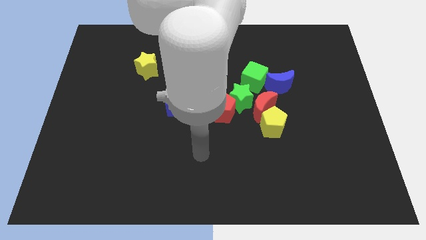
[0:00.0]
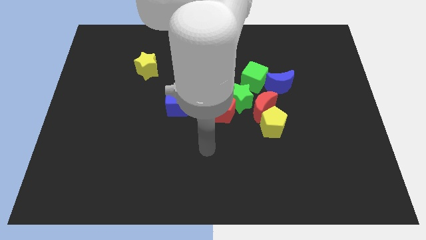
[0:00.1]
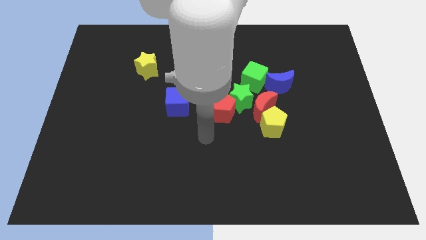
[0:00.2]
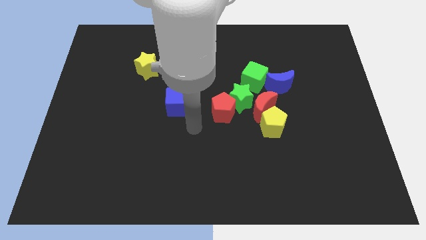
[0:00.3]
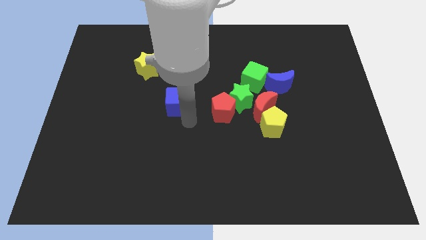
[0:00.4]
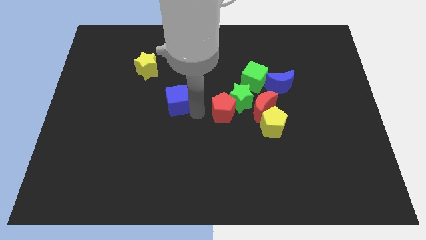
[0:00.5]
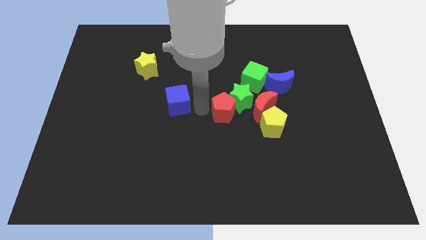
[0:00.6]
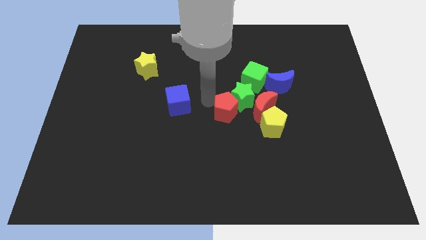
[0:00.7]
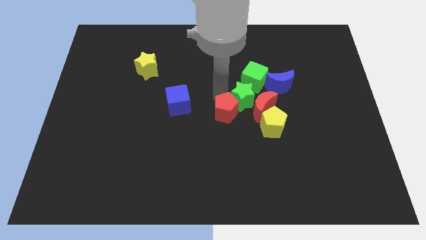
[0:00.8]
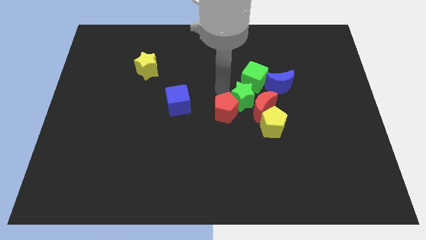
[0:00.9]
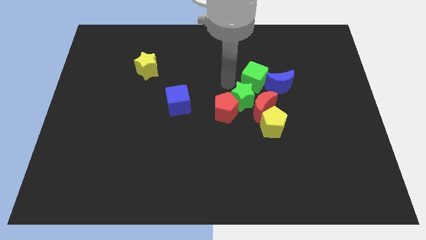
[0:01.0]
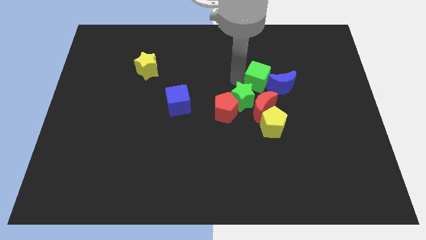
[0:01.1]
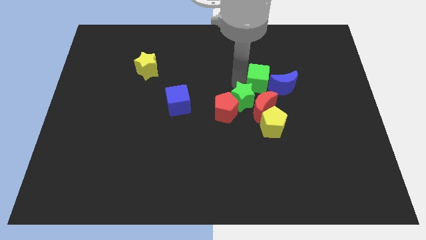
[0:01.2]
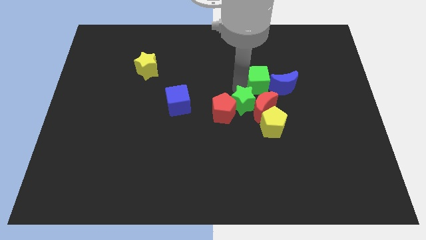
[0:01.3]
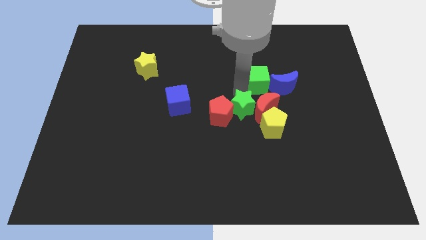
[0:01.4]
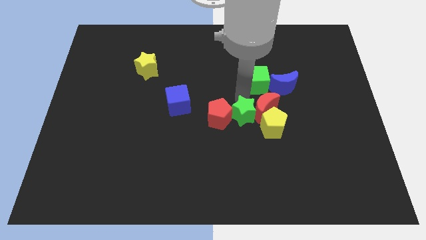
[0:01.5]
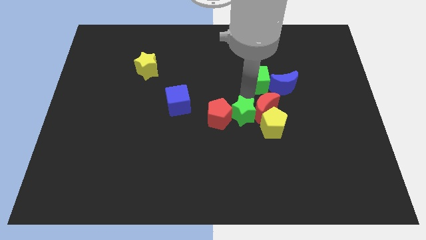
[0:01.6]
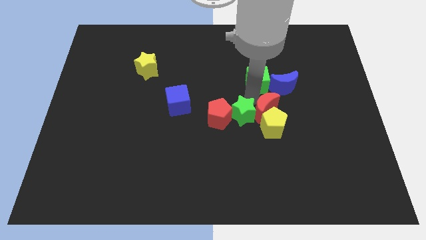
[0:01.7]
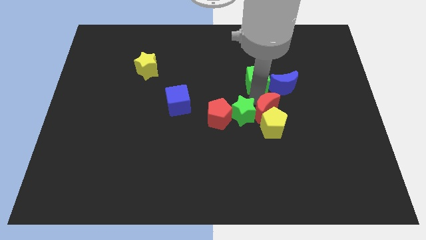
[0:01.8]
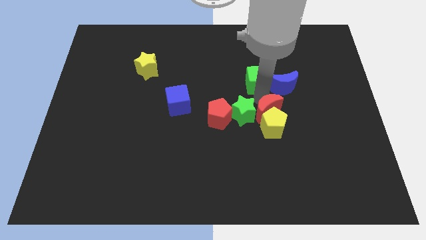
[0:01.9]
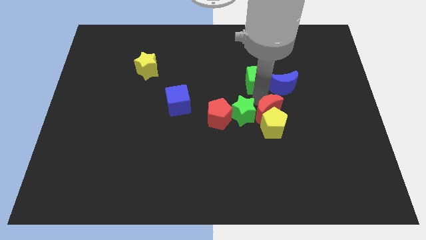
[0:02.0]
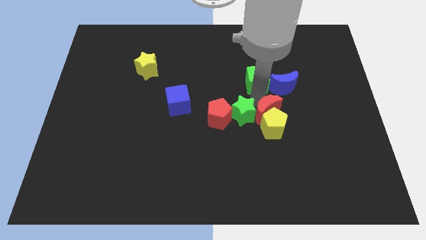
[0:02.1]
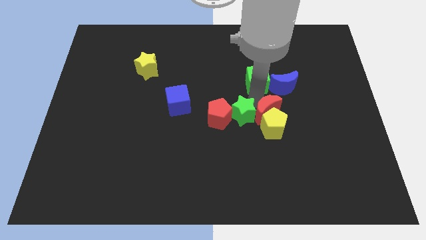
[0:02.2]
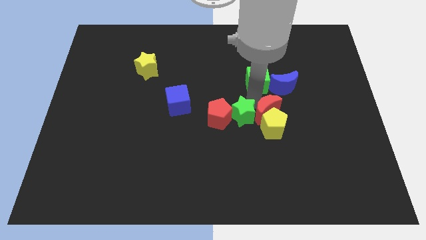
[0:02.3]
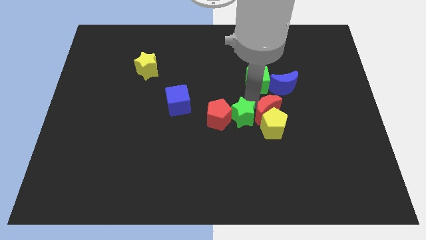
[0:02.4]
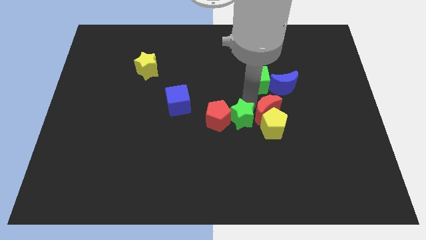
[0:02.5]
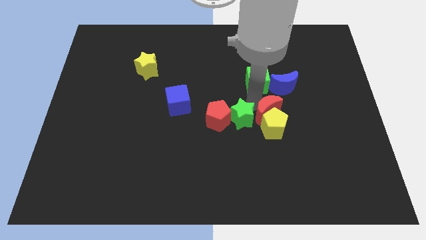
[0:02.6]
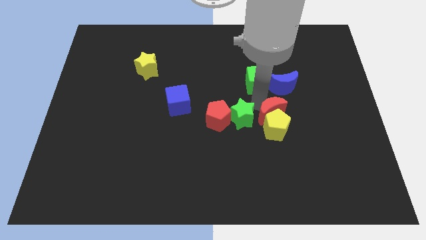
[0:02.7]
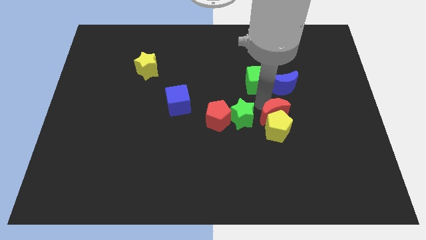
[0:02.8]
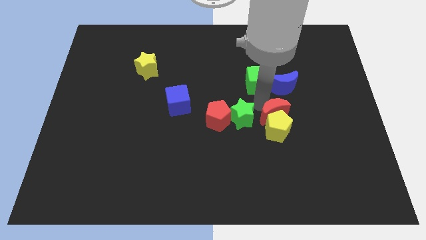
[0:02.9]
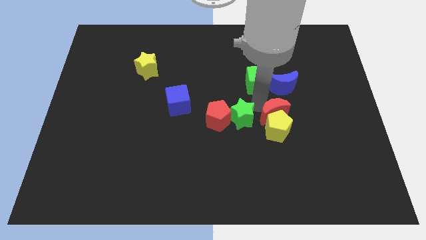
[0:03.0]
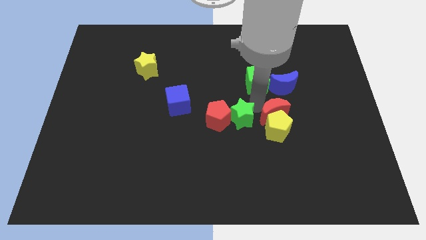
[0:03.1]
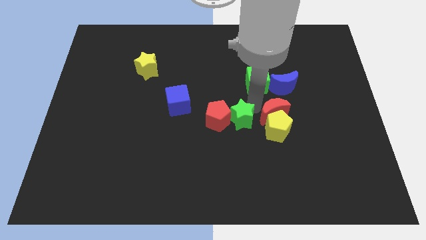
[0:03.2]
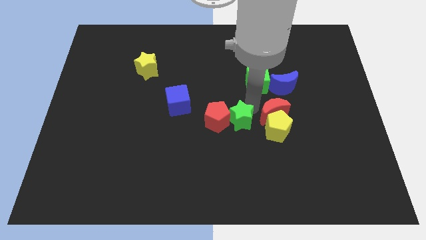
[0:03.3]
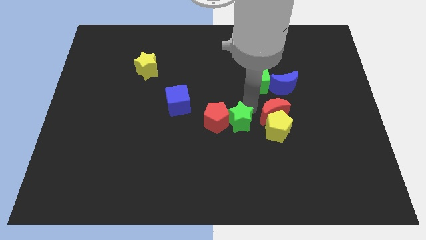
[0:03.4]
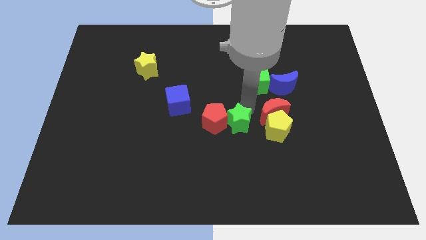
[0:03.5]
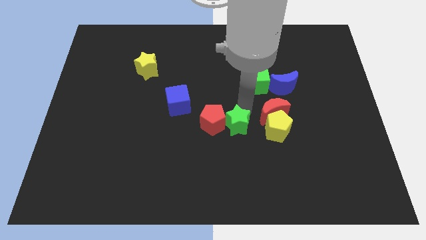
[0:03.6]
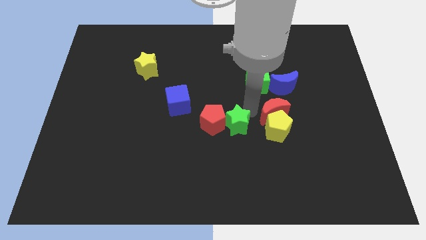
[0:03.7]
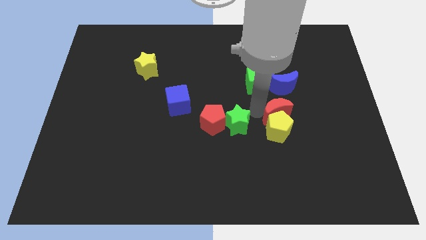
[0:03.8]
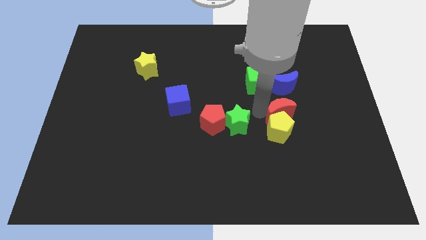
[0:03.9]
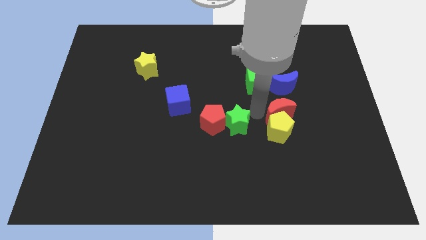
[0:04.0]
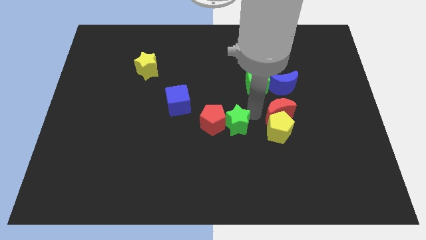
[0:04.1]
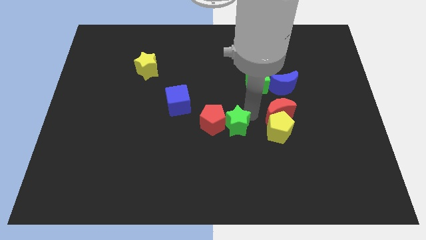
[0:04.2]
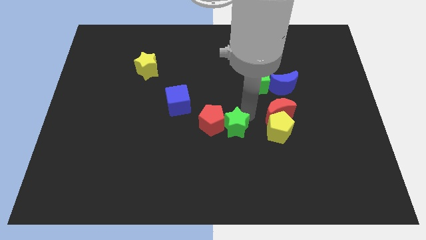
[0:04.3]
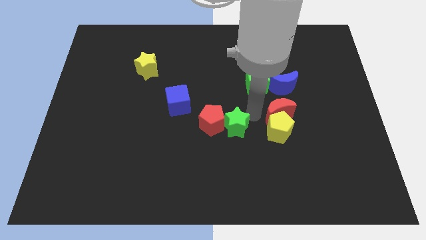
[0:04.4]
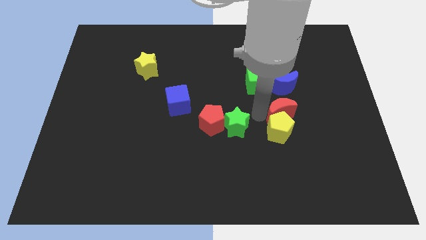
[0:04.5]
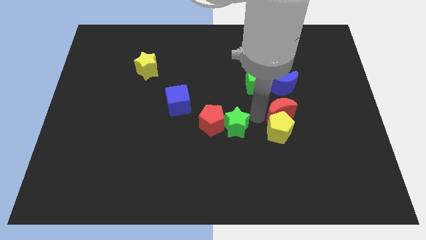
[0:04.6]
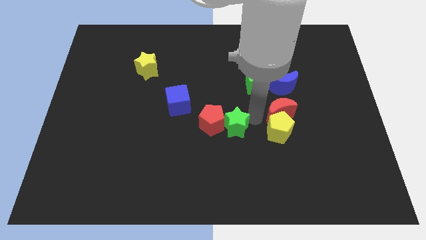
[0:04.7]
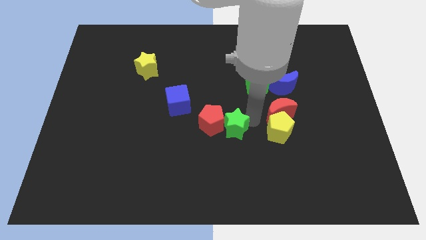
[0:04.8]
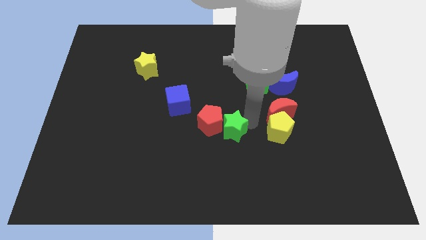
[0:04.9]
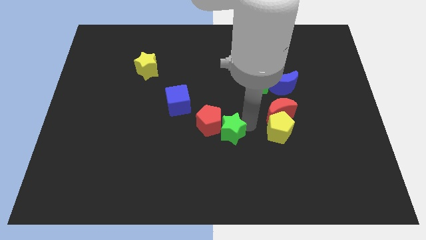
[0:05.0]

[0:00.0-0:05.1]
push the green star slightly downwards and then left

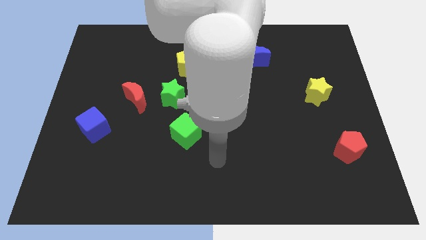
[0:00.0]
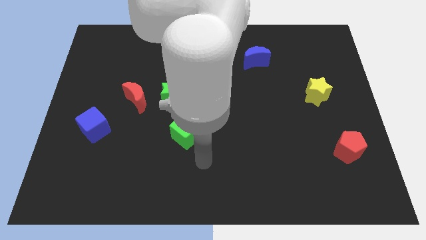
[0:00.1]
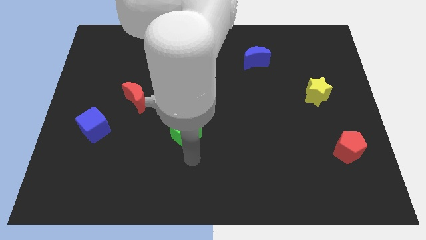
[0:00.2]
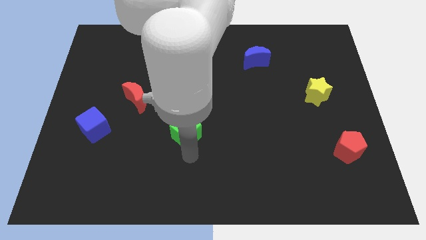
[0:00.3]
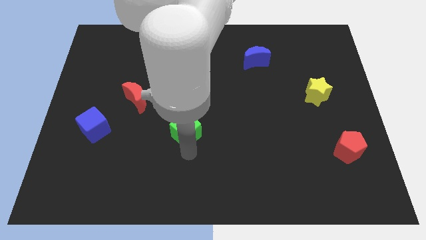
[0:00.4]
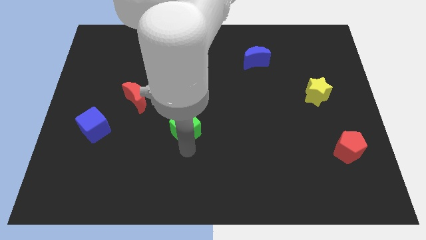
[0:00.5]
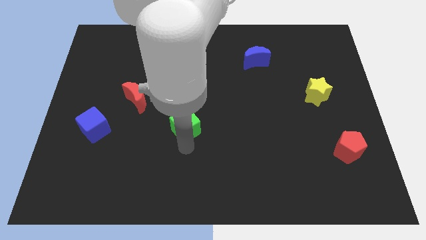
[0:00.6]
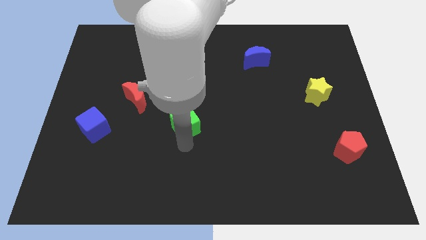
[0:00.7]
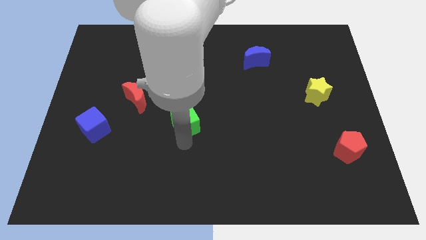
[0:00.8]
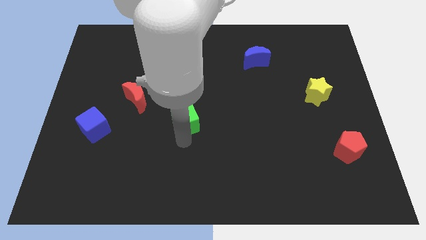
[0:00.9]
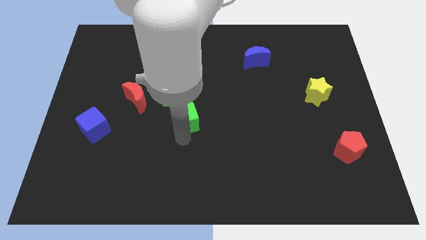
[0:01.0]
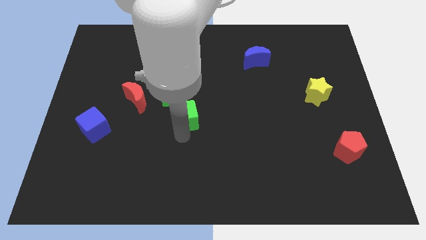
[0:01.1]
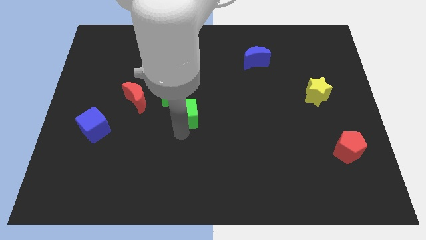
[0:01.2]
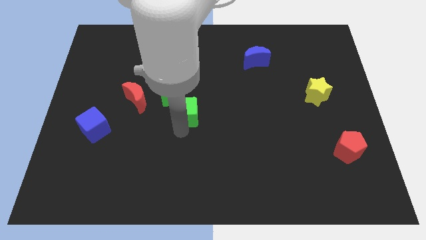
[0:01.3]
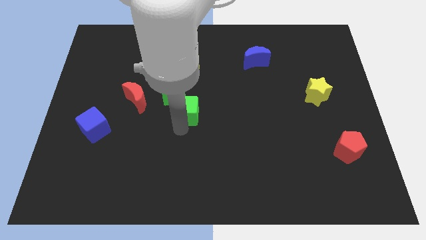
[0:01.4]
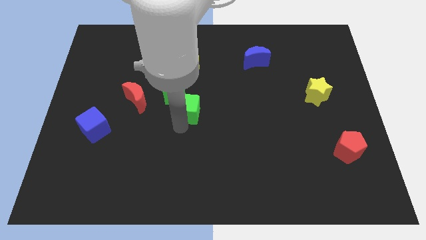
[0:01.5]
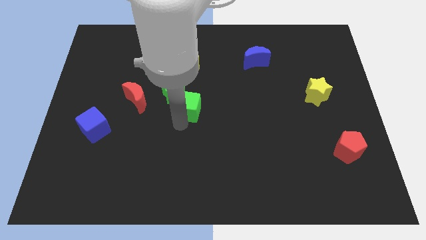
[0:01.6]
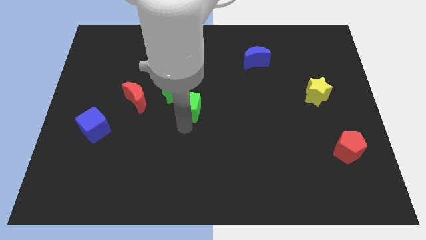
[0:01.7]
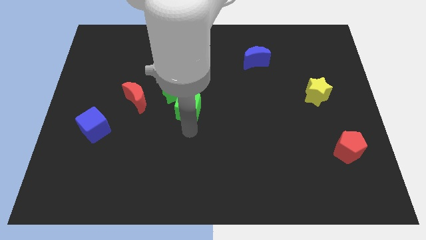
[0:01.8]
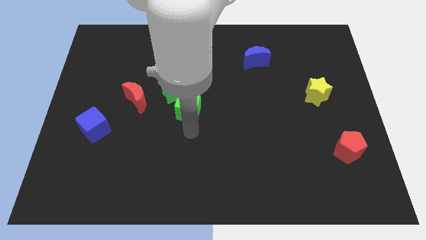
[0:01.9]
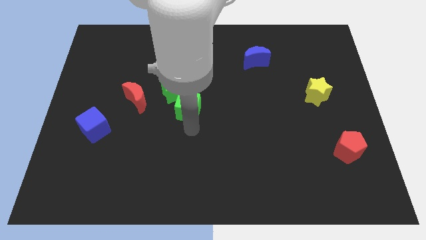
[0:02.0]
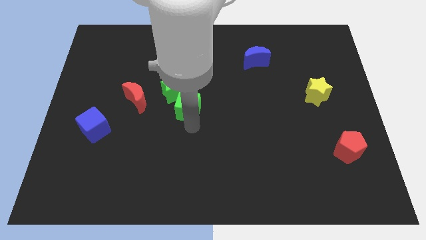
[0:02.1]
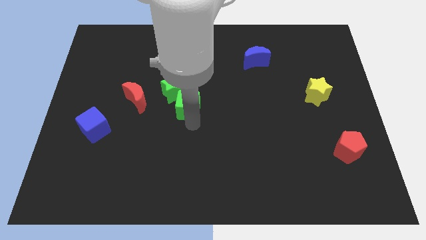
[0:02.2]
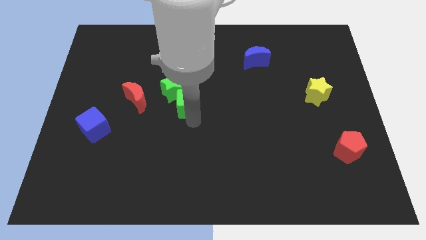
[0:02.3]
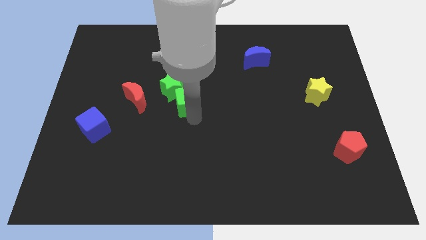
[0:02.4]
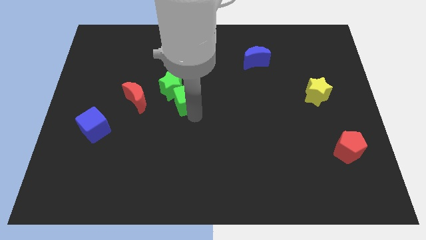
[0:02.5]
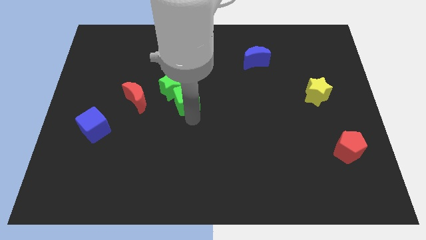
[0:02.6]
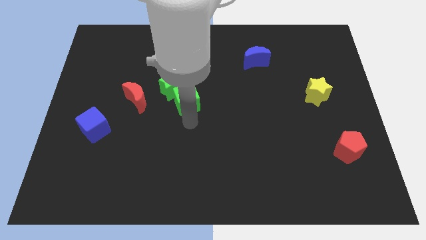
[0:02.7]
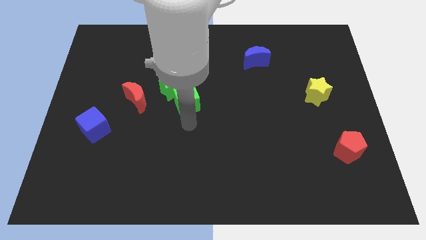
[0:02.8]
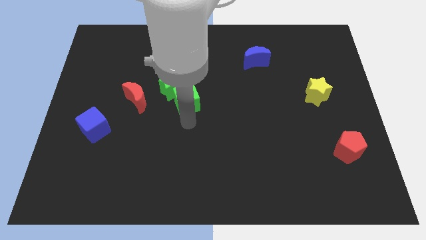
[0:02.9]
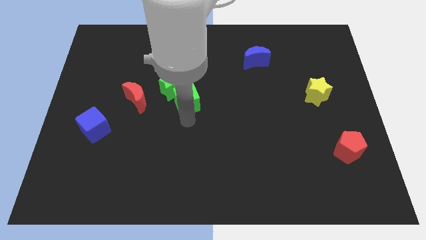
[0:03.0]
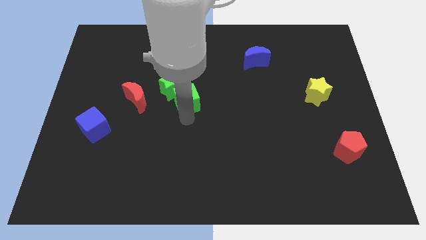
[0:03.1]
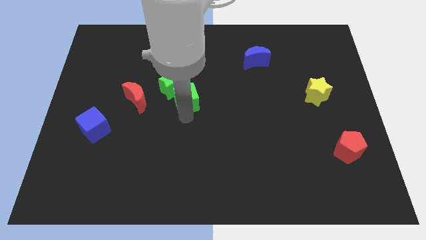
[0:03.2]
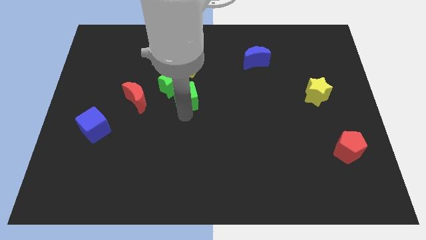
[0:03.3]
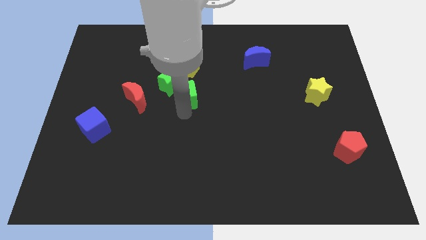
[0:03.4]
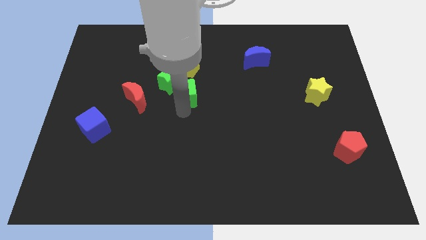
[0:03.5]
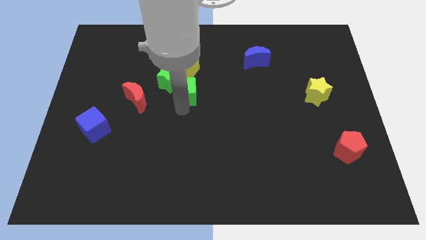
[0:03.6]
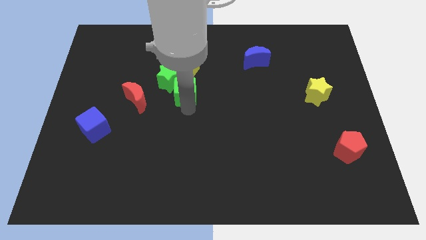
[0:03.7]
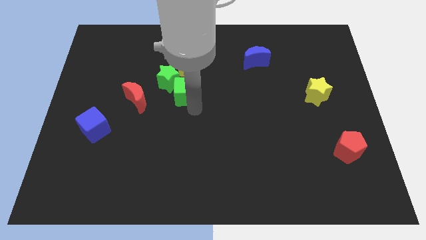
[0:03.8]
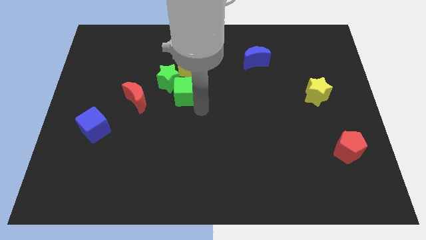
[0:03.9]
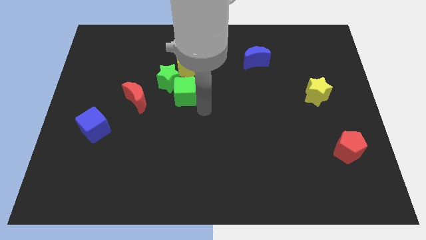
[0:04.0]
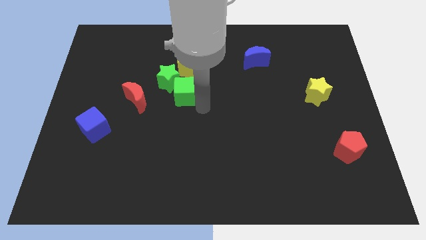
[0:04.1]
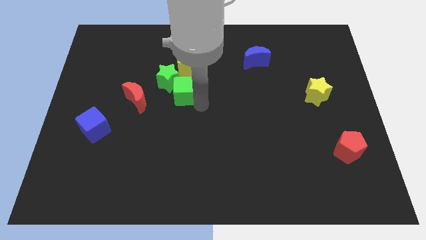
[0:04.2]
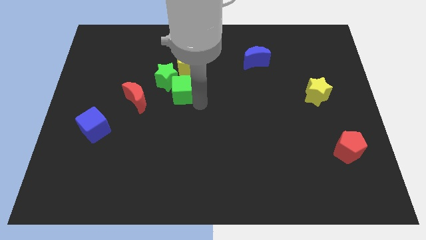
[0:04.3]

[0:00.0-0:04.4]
slightly push the green cube up and then left
